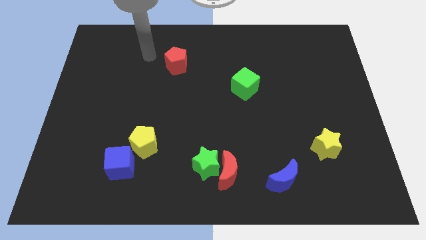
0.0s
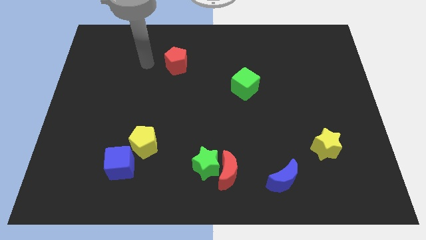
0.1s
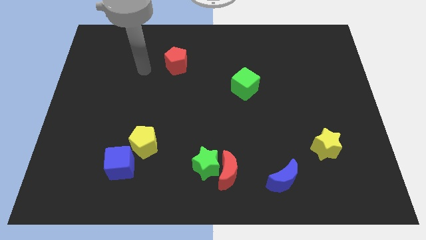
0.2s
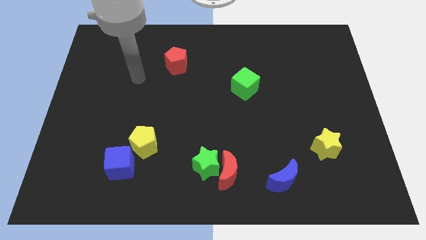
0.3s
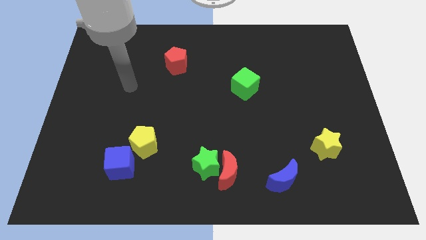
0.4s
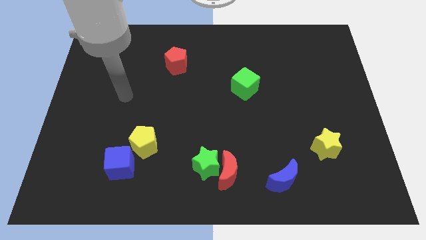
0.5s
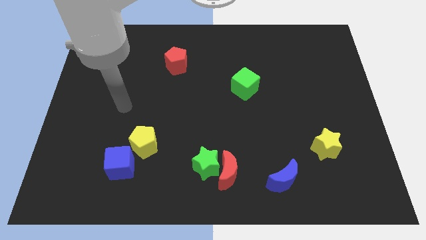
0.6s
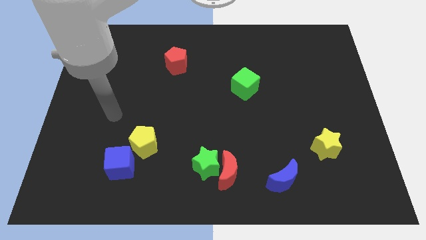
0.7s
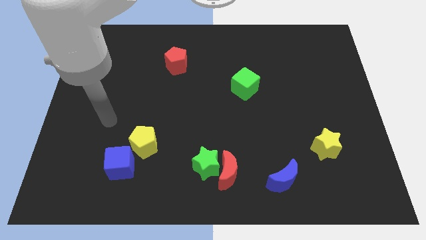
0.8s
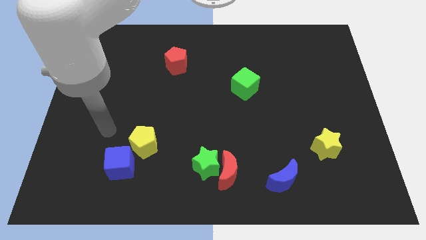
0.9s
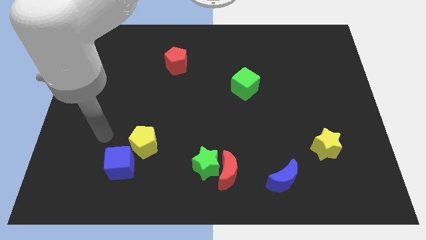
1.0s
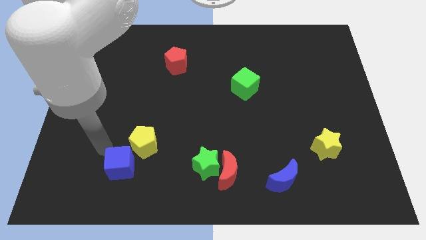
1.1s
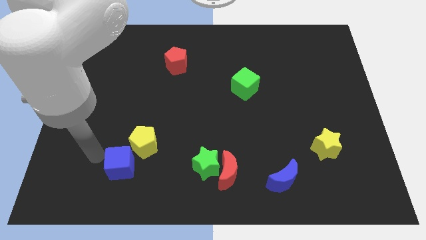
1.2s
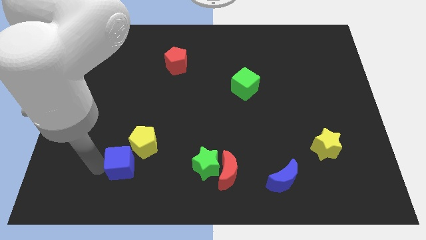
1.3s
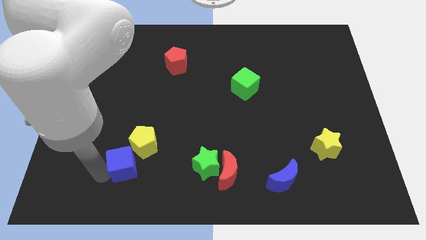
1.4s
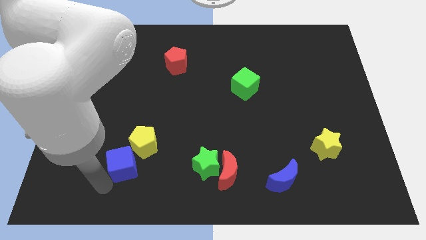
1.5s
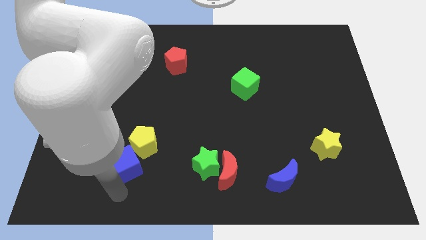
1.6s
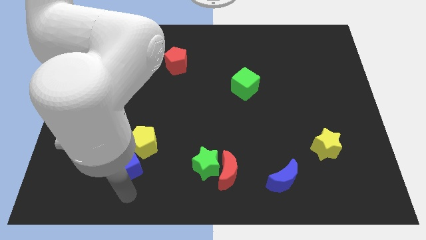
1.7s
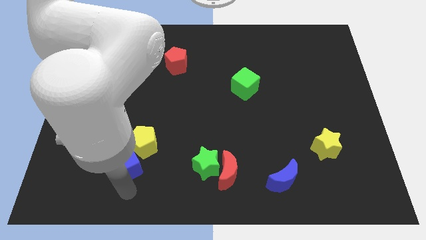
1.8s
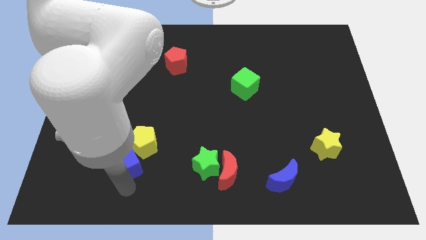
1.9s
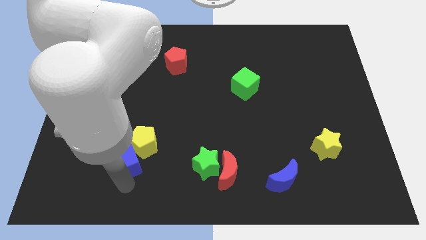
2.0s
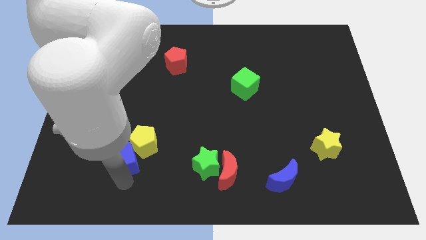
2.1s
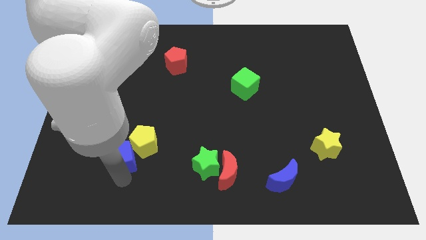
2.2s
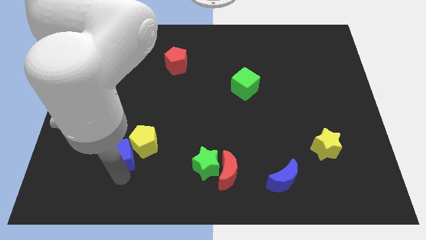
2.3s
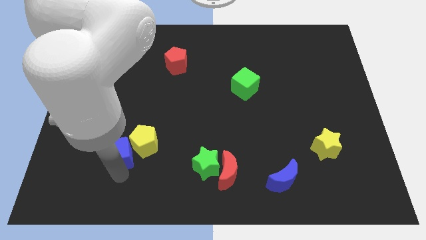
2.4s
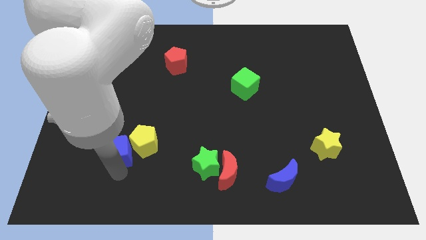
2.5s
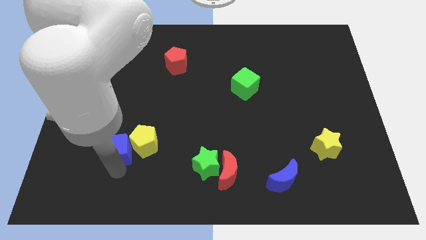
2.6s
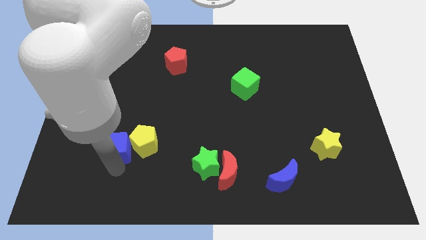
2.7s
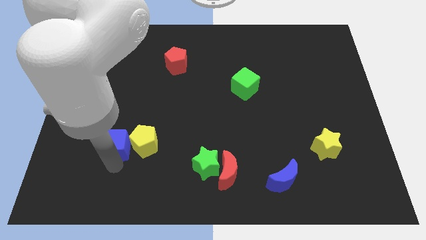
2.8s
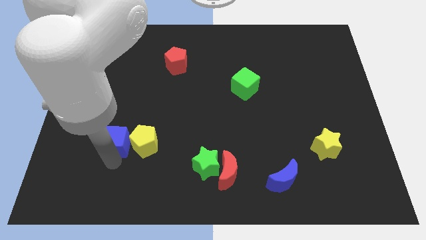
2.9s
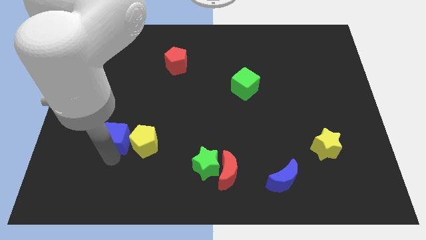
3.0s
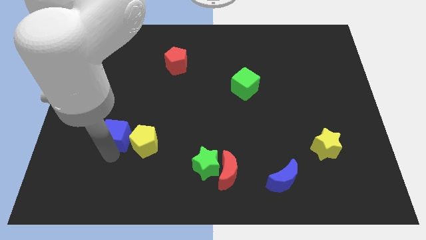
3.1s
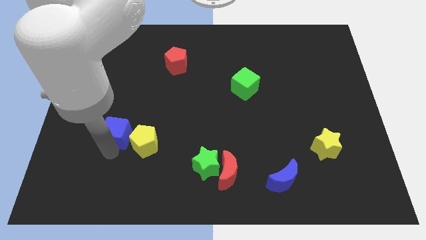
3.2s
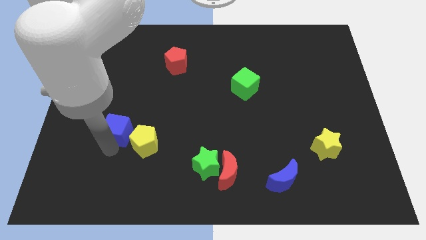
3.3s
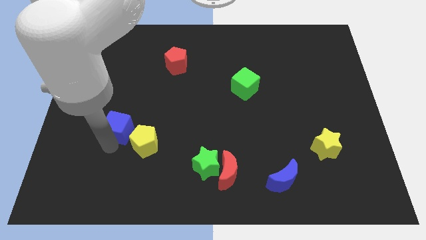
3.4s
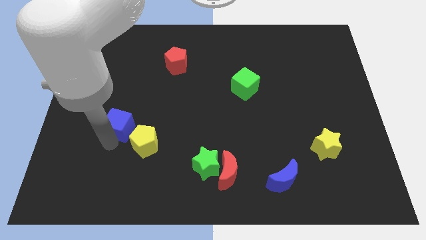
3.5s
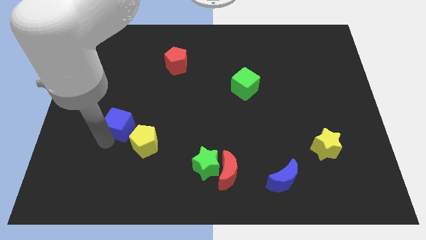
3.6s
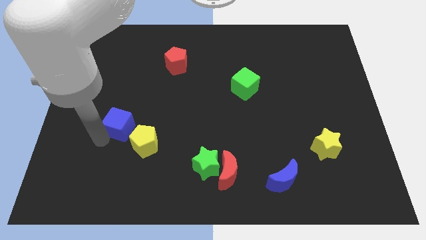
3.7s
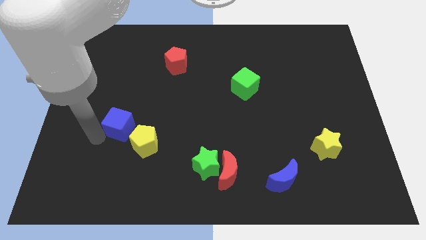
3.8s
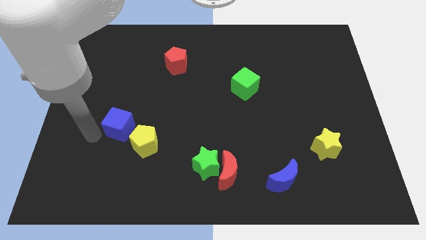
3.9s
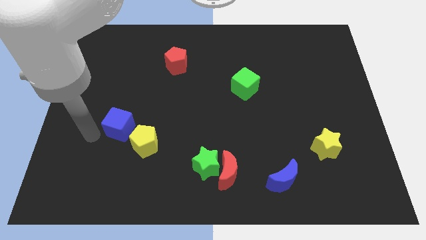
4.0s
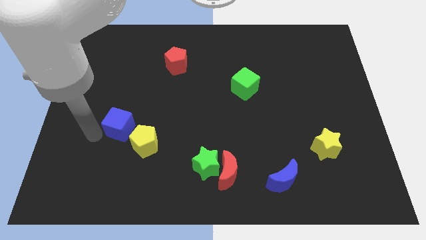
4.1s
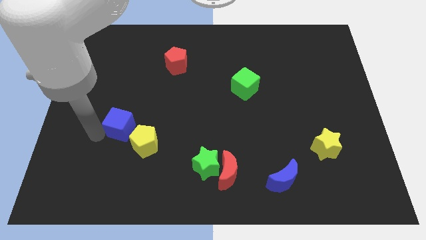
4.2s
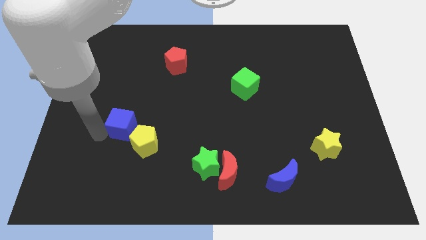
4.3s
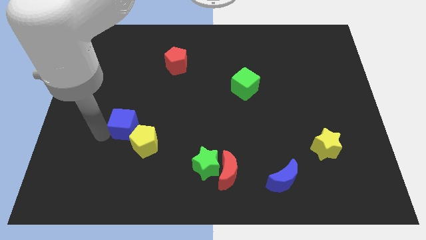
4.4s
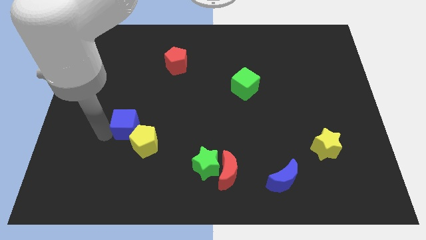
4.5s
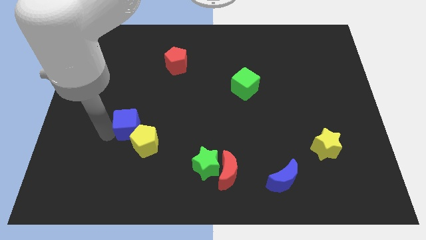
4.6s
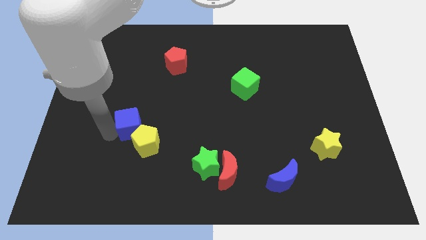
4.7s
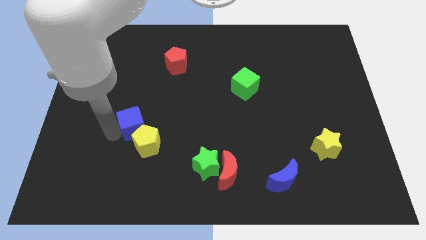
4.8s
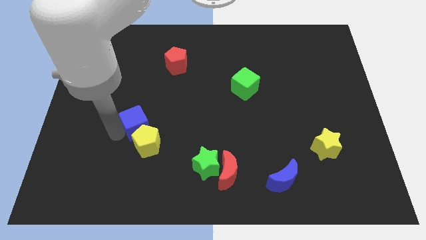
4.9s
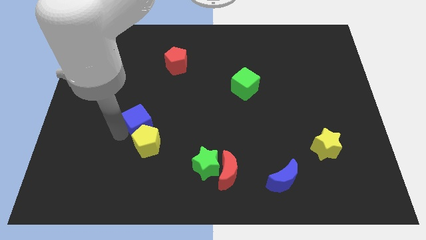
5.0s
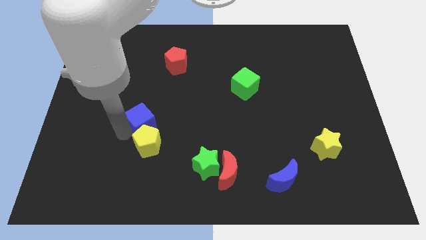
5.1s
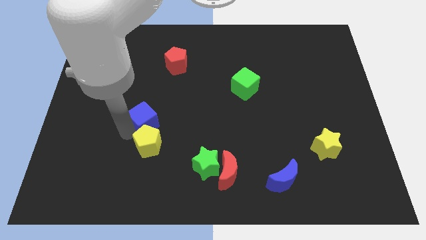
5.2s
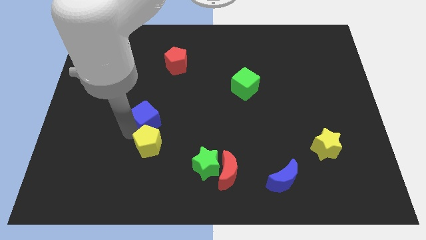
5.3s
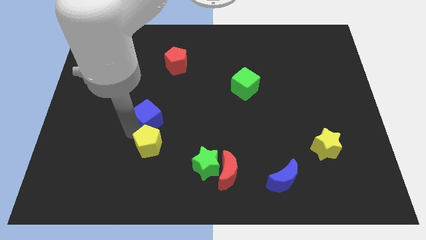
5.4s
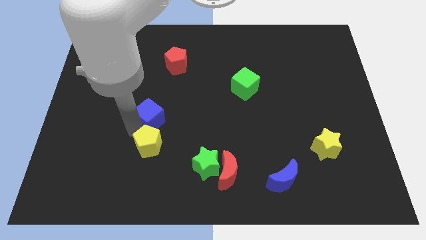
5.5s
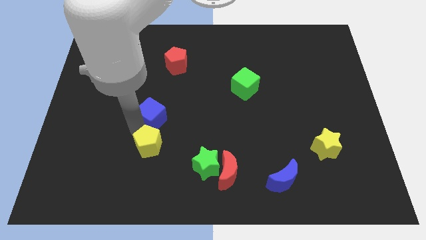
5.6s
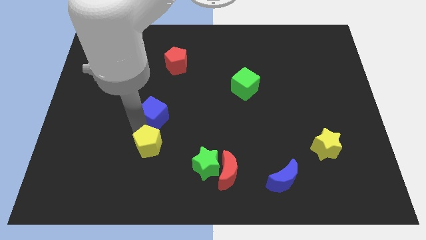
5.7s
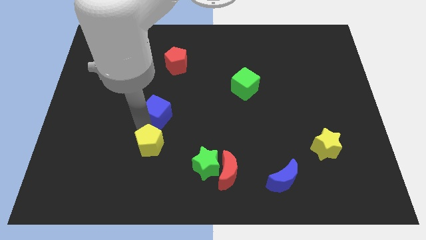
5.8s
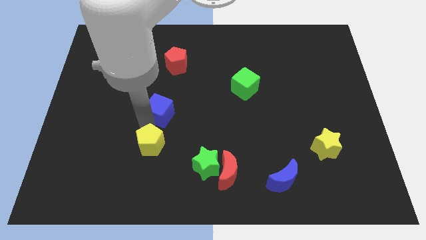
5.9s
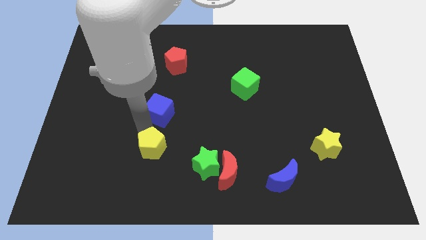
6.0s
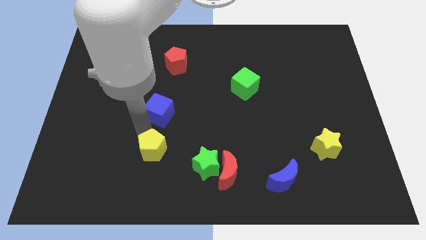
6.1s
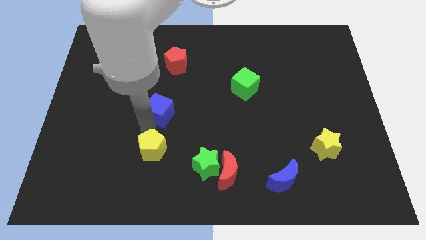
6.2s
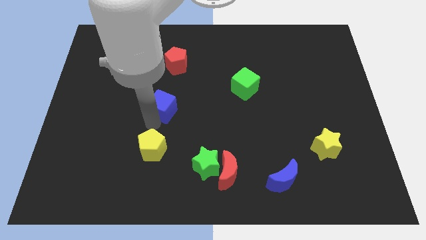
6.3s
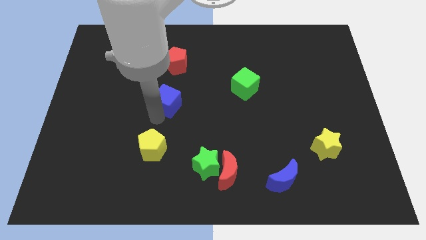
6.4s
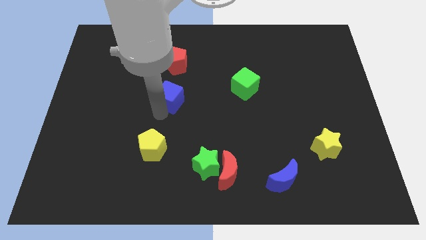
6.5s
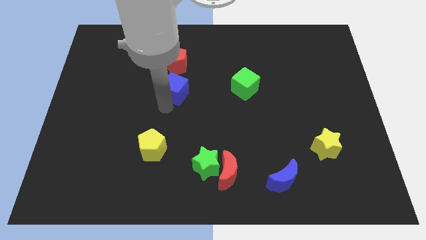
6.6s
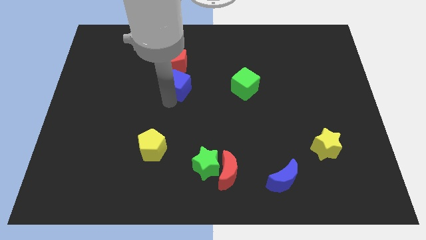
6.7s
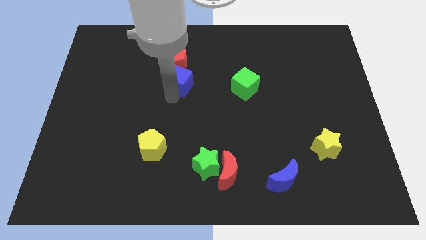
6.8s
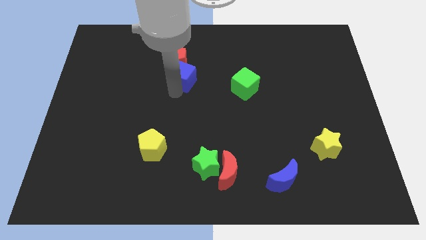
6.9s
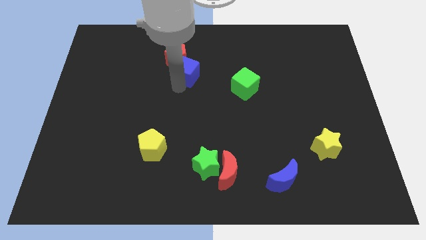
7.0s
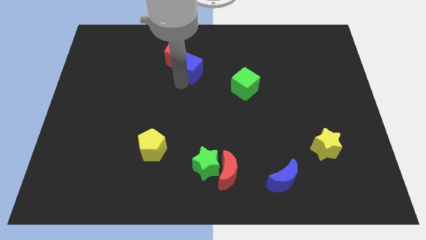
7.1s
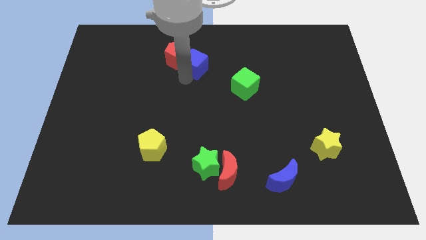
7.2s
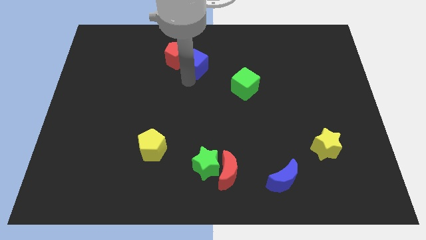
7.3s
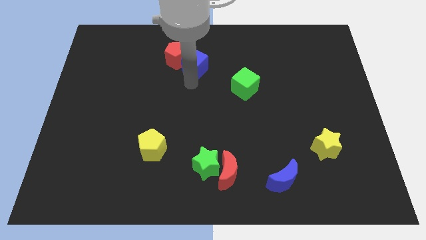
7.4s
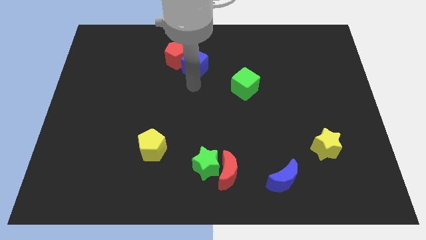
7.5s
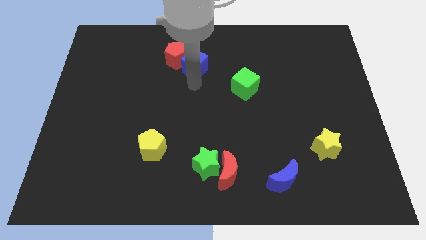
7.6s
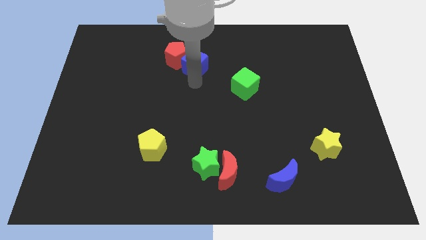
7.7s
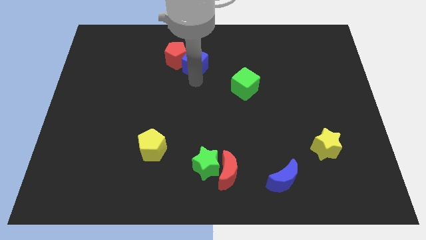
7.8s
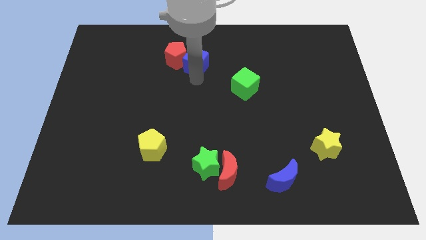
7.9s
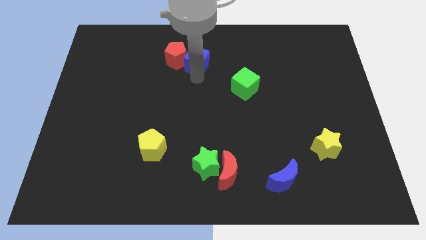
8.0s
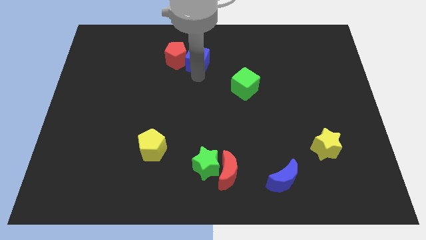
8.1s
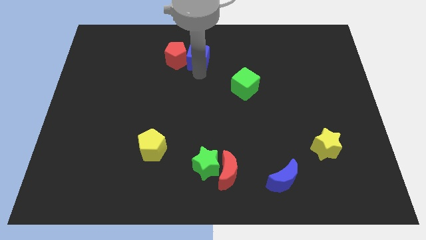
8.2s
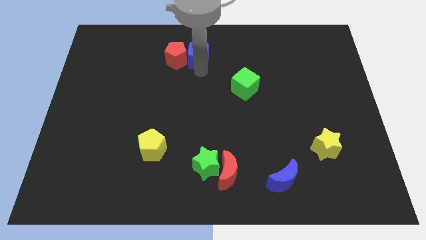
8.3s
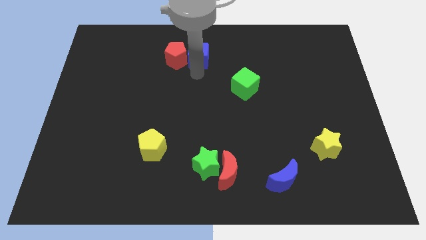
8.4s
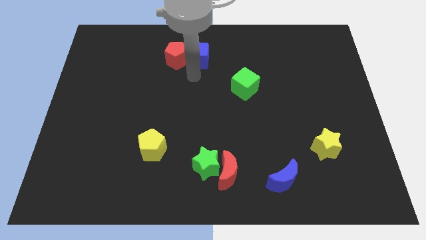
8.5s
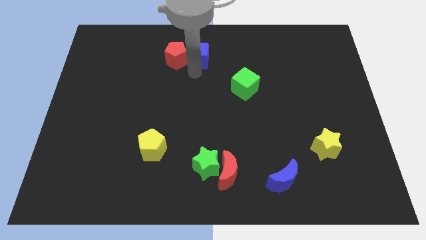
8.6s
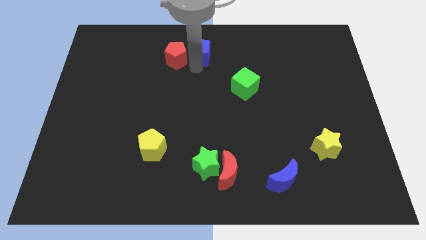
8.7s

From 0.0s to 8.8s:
move the blue cube to the towards your base
